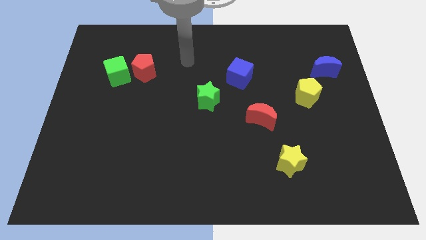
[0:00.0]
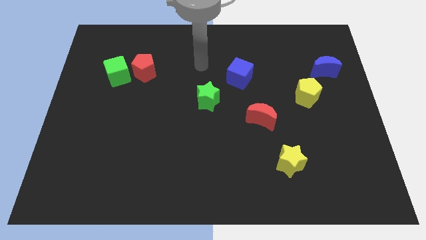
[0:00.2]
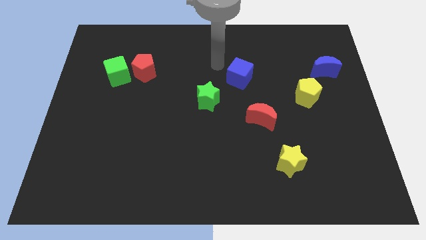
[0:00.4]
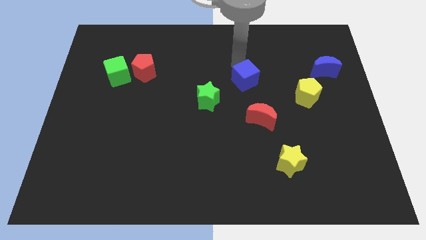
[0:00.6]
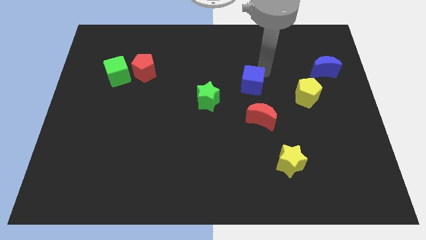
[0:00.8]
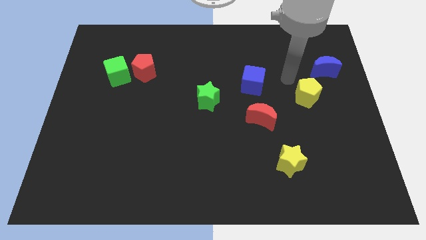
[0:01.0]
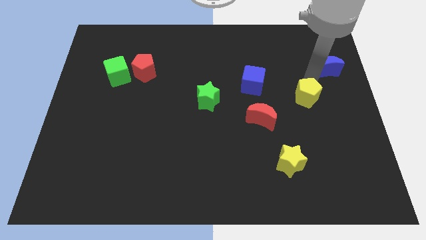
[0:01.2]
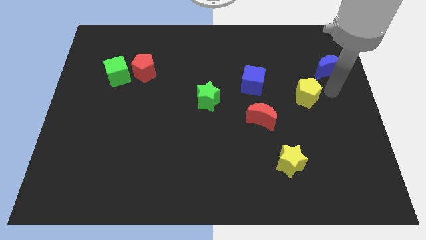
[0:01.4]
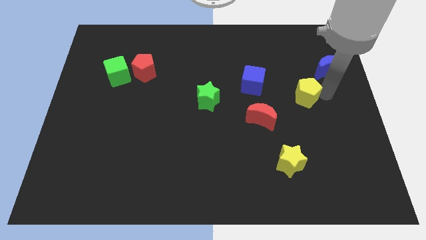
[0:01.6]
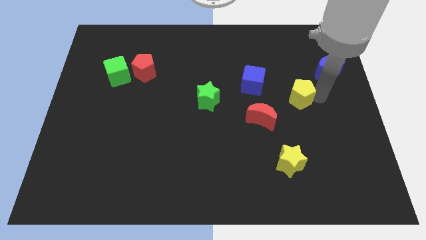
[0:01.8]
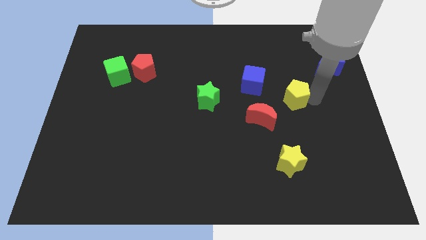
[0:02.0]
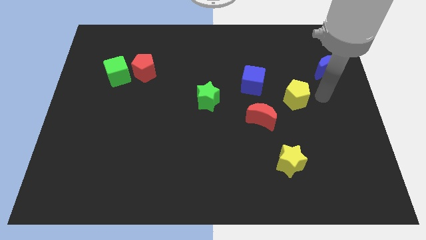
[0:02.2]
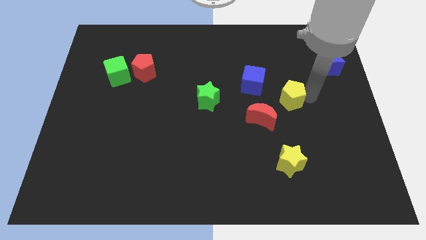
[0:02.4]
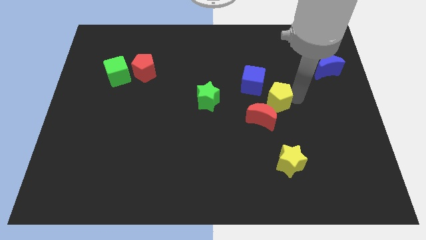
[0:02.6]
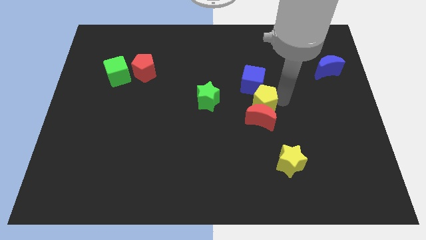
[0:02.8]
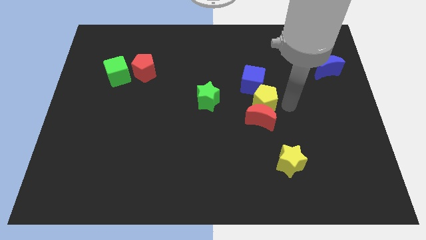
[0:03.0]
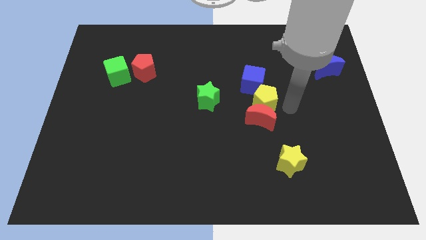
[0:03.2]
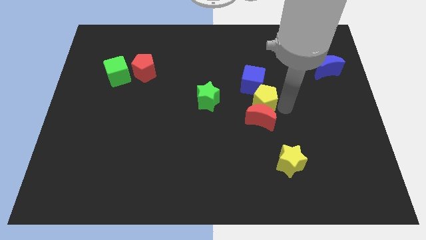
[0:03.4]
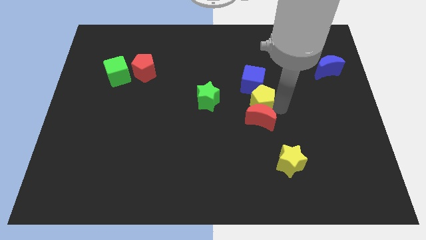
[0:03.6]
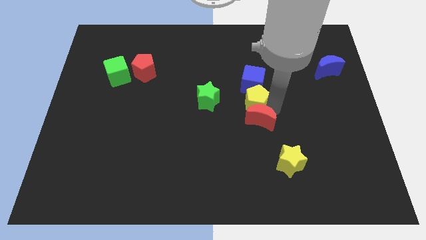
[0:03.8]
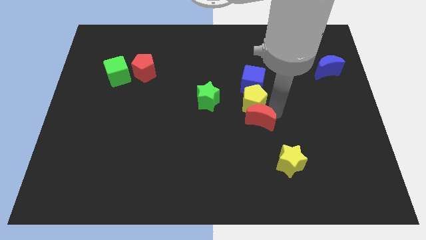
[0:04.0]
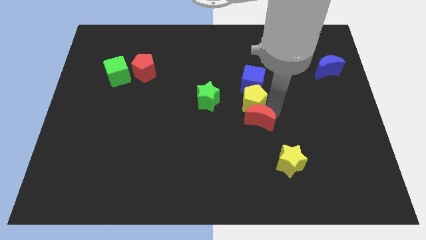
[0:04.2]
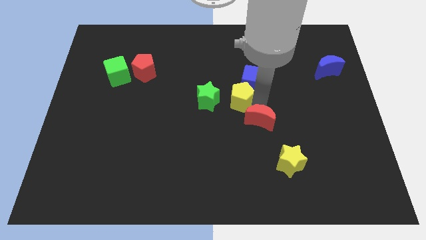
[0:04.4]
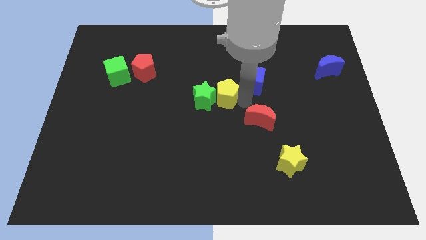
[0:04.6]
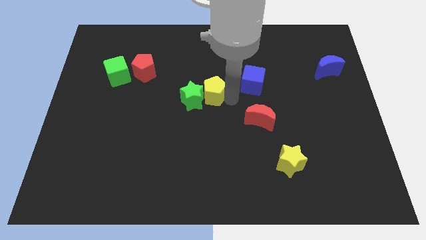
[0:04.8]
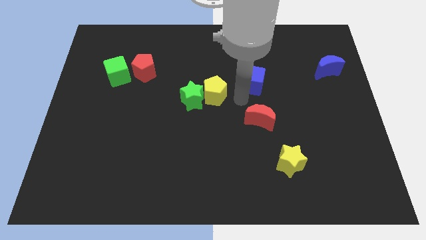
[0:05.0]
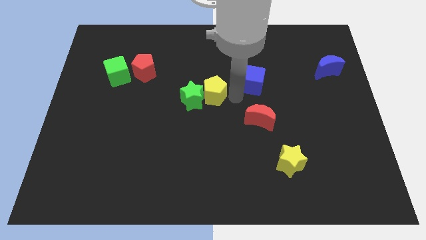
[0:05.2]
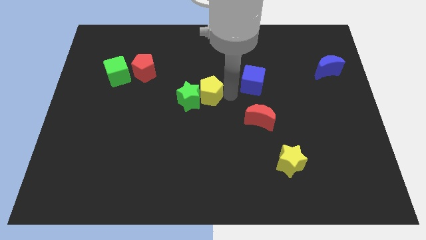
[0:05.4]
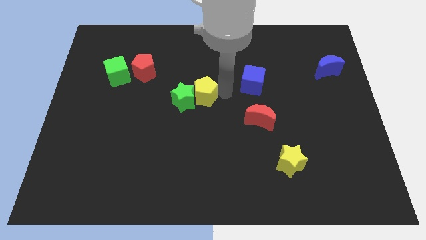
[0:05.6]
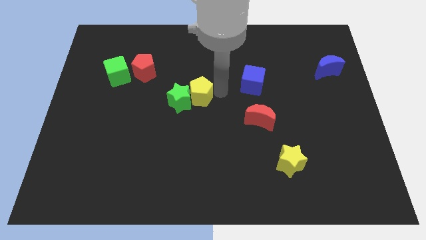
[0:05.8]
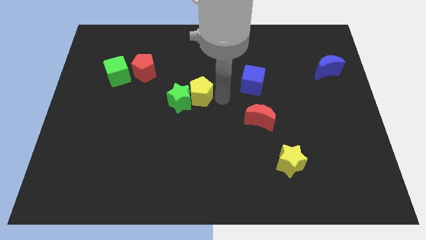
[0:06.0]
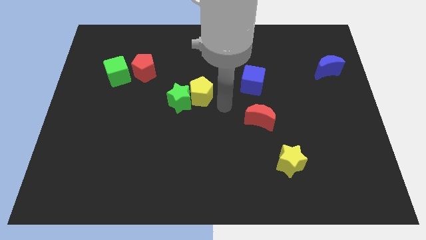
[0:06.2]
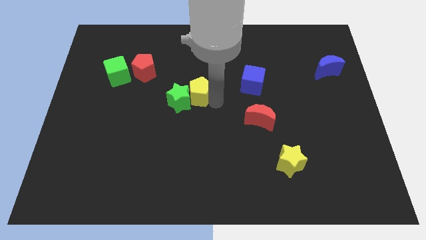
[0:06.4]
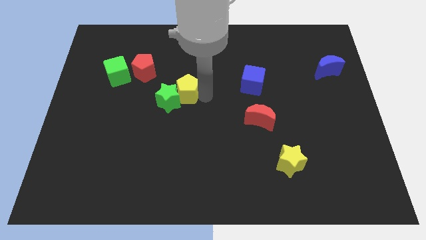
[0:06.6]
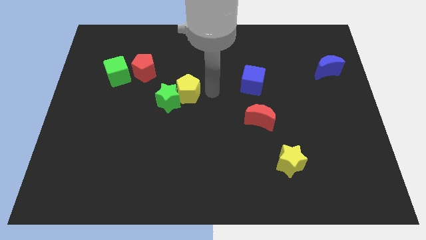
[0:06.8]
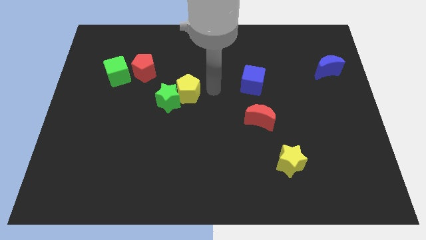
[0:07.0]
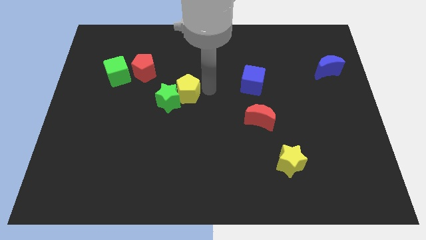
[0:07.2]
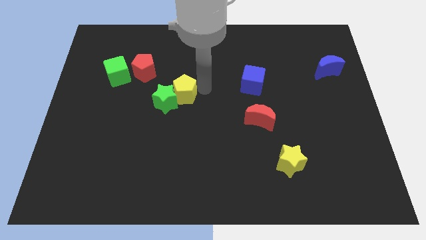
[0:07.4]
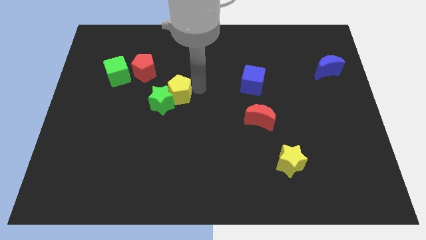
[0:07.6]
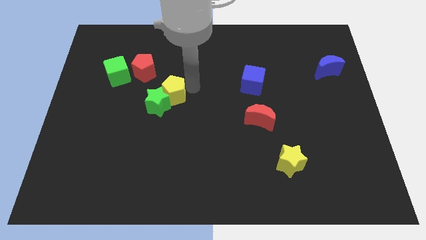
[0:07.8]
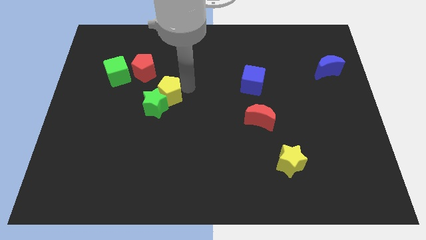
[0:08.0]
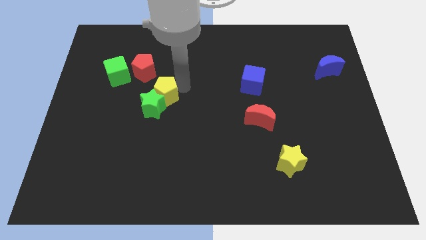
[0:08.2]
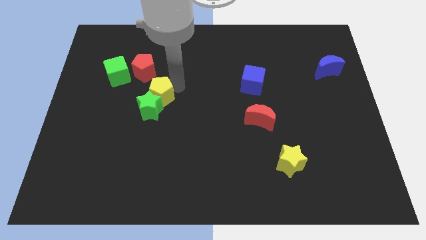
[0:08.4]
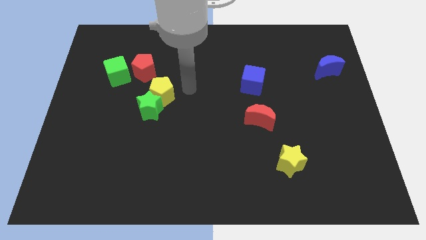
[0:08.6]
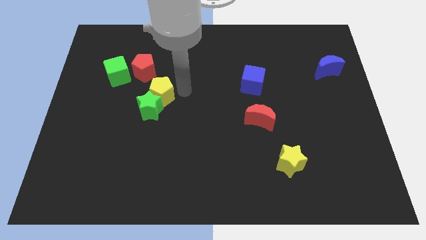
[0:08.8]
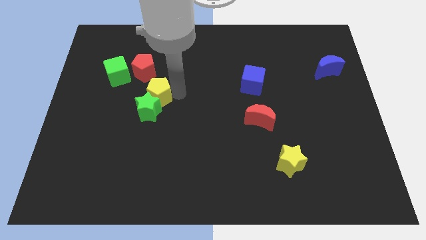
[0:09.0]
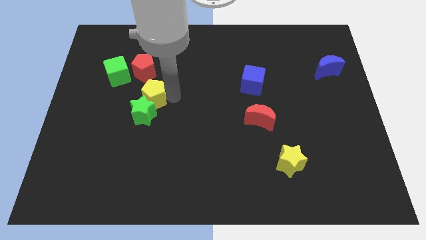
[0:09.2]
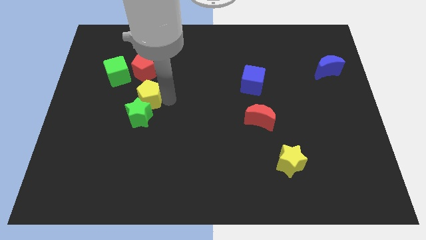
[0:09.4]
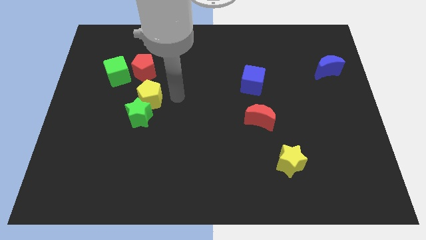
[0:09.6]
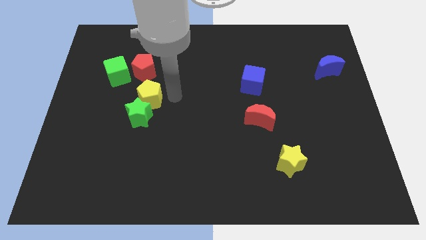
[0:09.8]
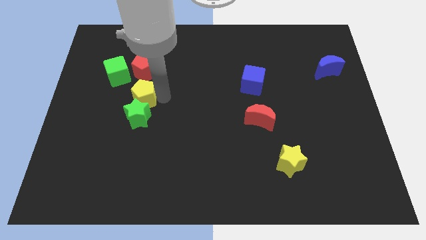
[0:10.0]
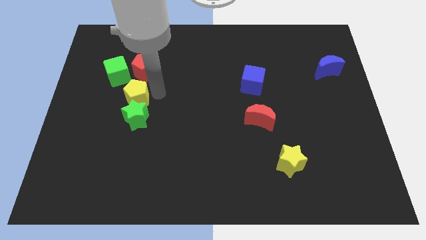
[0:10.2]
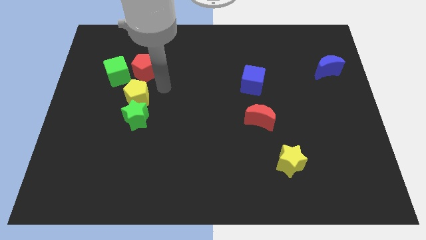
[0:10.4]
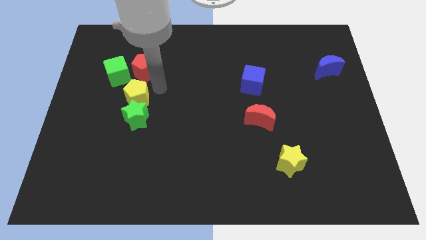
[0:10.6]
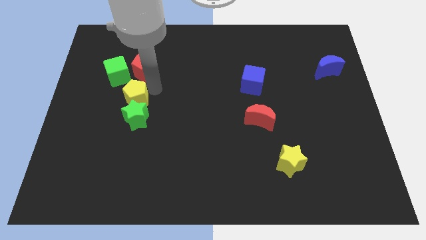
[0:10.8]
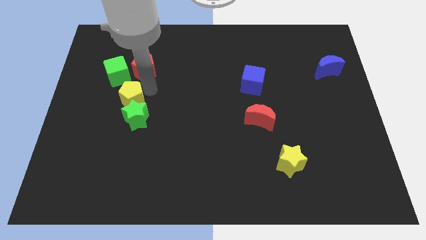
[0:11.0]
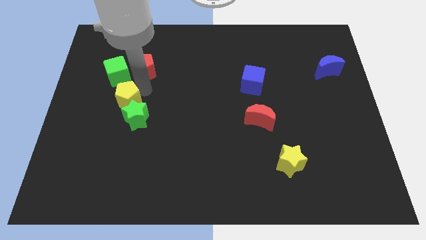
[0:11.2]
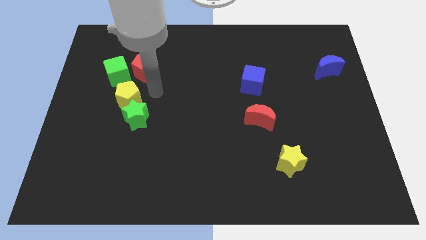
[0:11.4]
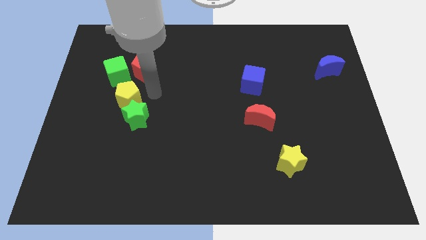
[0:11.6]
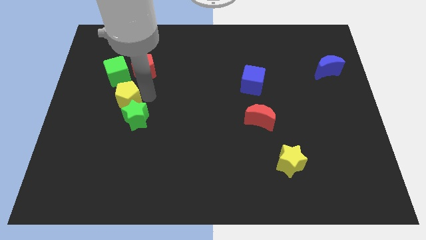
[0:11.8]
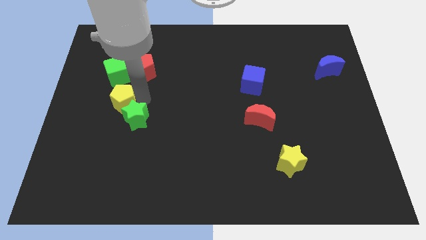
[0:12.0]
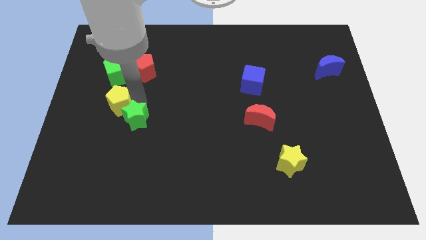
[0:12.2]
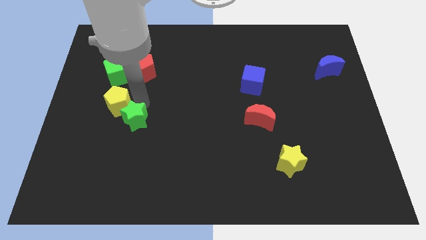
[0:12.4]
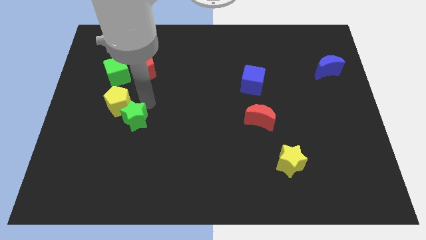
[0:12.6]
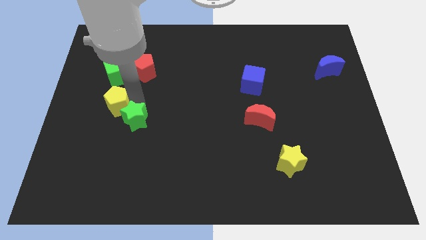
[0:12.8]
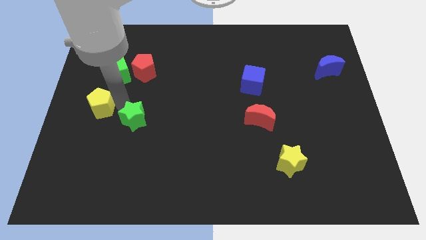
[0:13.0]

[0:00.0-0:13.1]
push the yellow pentagon to the left side
